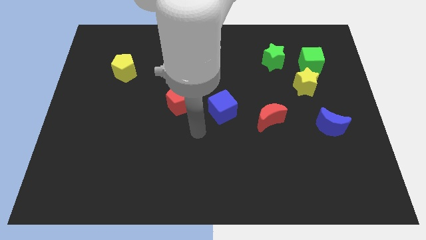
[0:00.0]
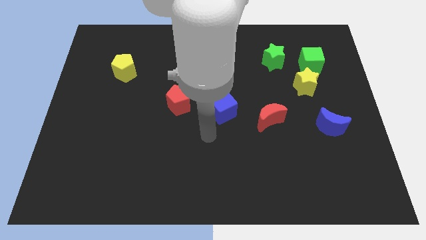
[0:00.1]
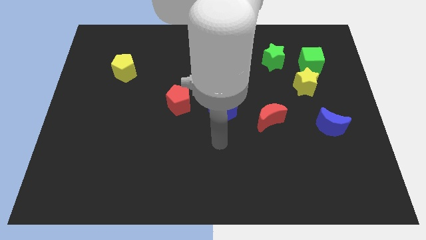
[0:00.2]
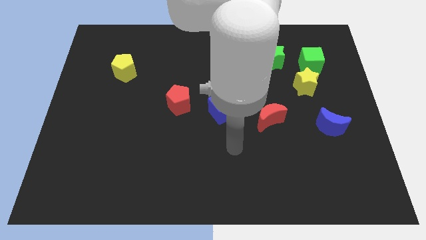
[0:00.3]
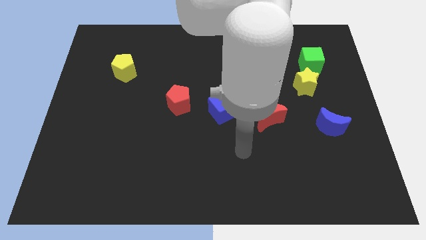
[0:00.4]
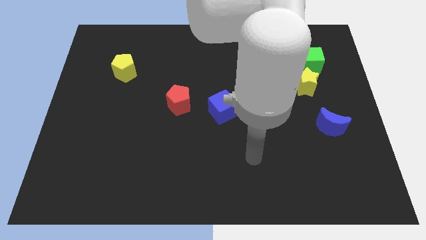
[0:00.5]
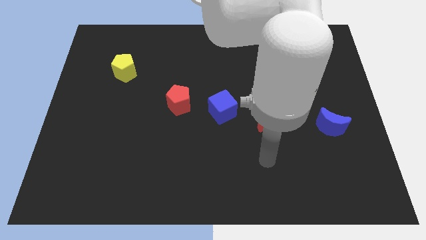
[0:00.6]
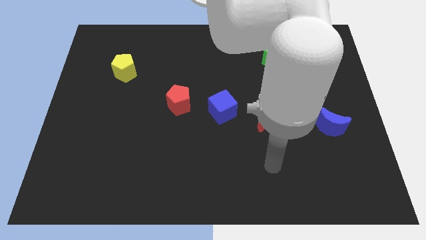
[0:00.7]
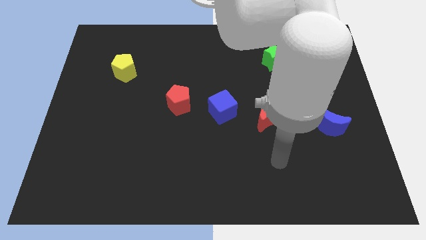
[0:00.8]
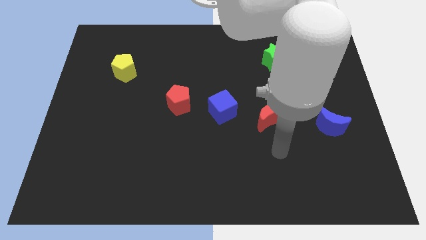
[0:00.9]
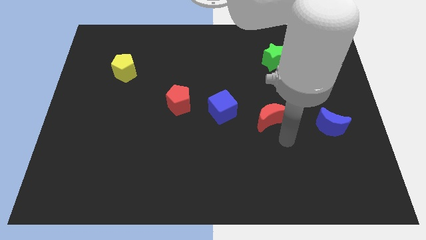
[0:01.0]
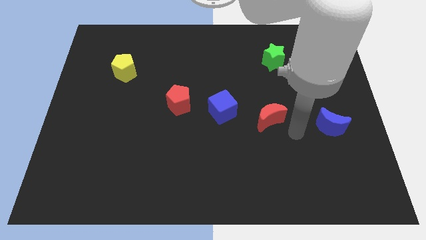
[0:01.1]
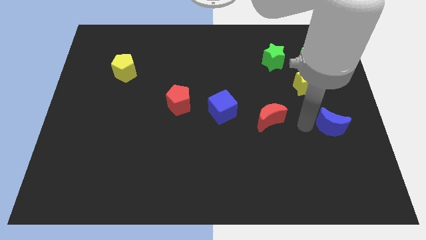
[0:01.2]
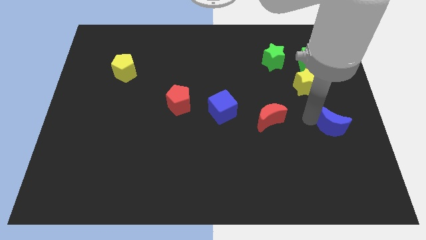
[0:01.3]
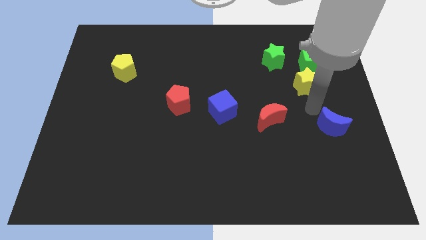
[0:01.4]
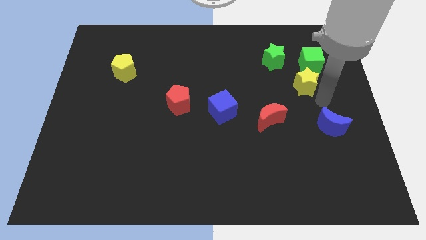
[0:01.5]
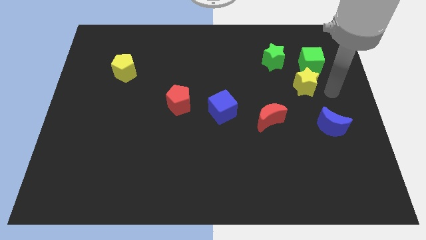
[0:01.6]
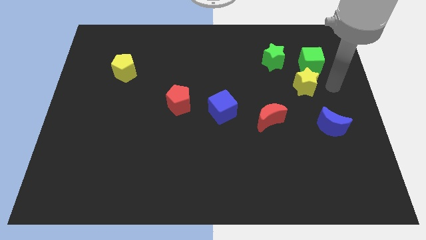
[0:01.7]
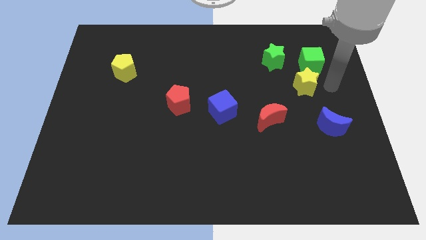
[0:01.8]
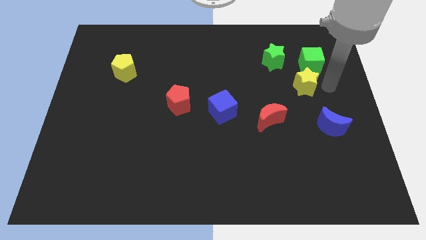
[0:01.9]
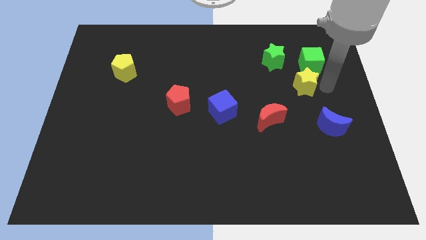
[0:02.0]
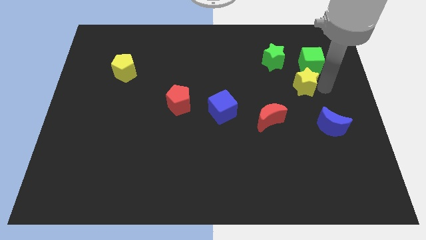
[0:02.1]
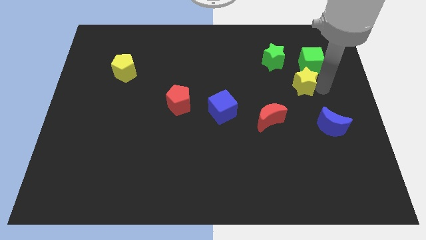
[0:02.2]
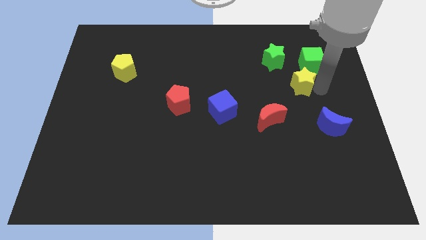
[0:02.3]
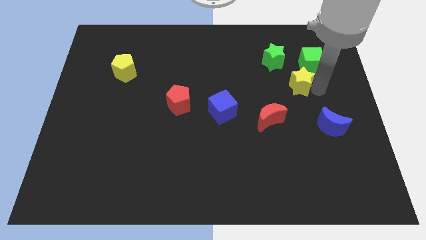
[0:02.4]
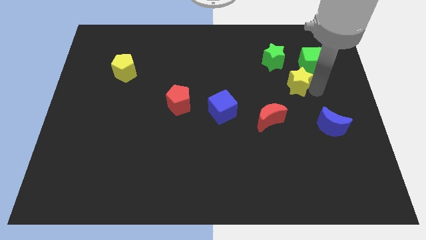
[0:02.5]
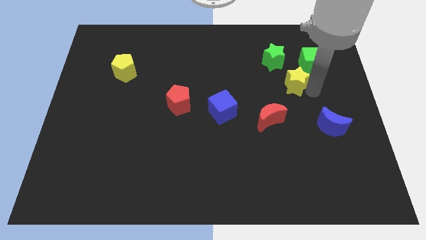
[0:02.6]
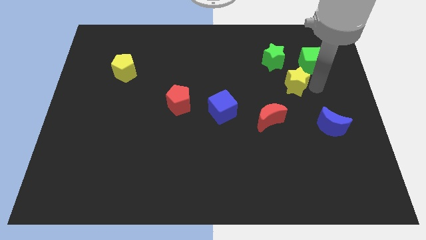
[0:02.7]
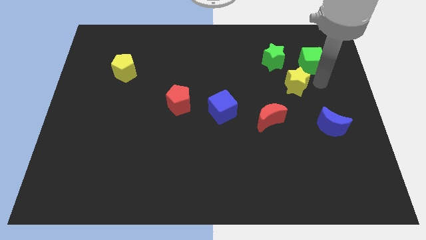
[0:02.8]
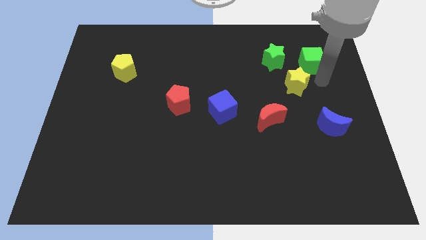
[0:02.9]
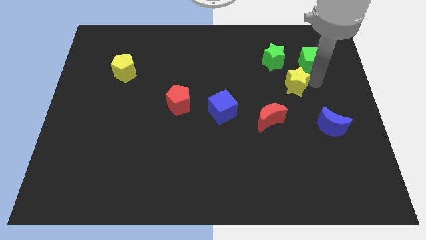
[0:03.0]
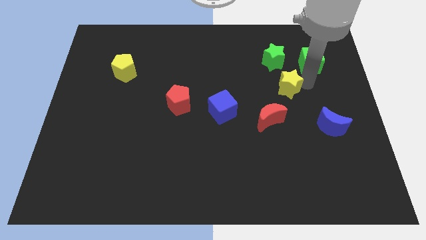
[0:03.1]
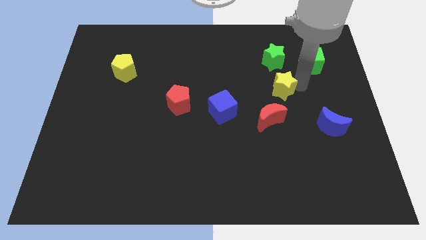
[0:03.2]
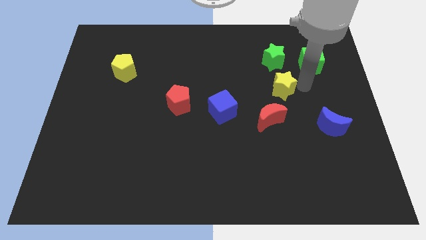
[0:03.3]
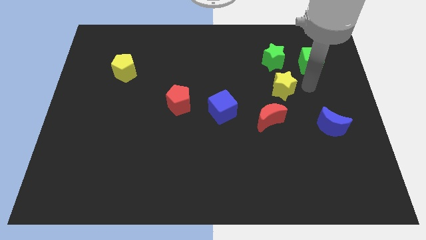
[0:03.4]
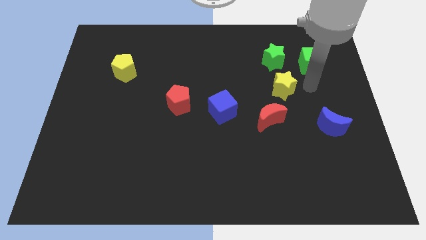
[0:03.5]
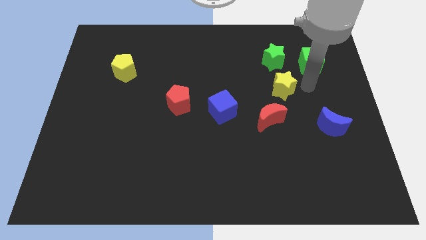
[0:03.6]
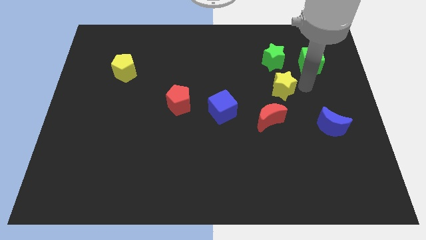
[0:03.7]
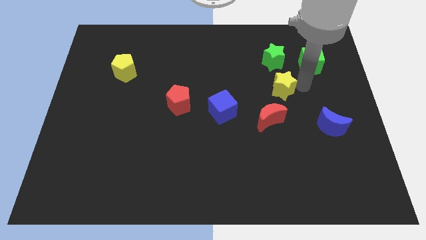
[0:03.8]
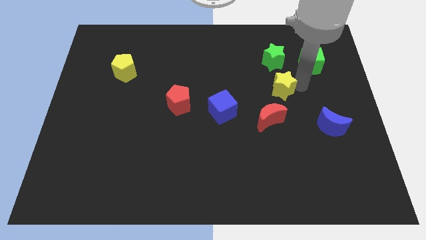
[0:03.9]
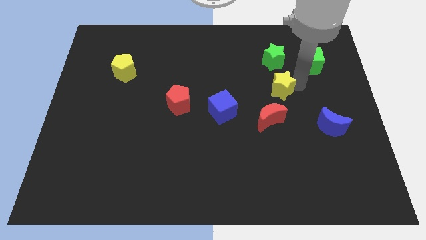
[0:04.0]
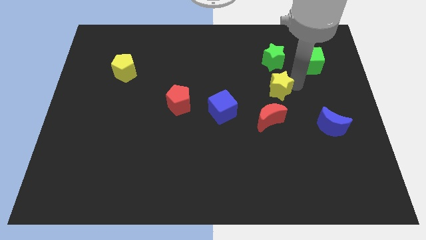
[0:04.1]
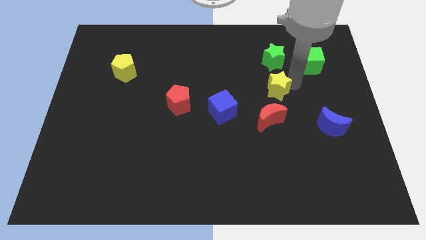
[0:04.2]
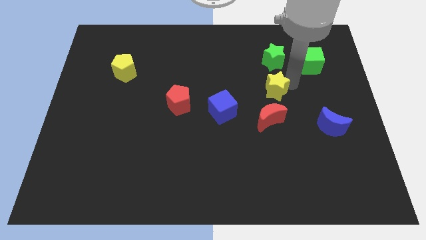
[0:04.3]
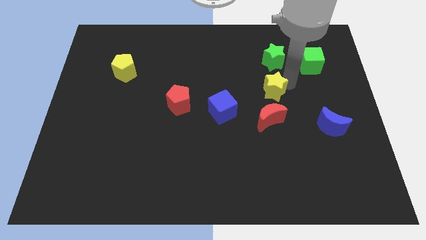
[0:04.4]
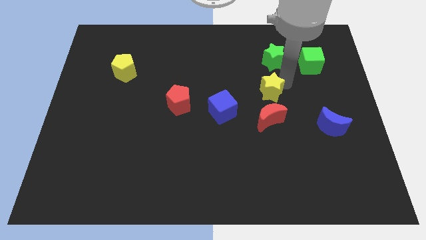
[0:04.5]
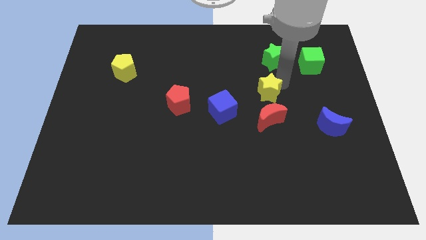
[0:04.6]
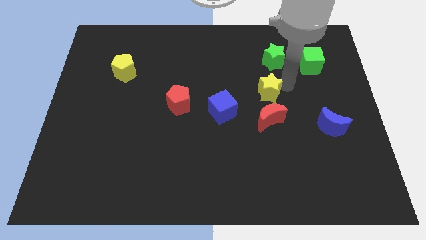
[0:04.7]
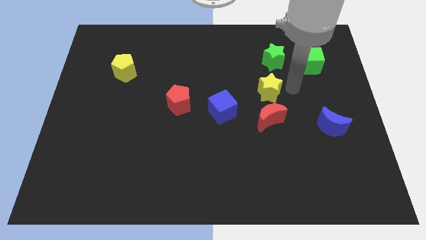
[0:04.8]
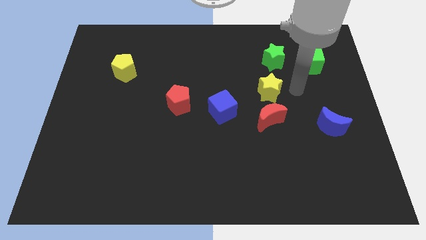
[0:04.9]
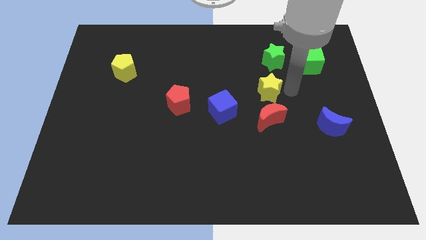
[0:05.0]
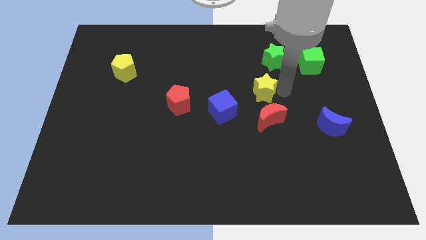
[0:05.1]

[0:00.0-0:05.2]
push the yellow star to the top right of the blue cube

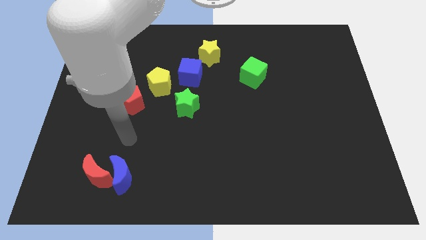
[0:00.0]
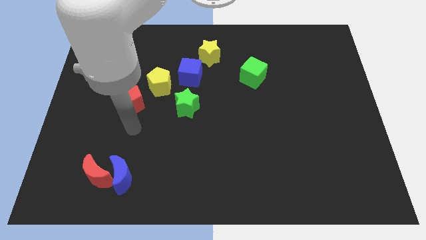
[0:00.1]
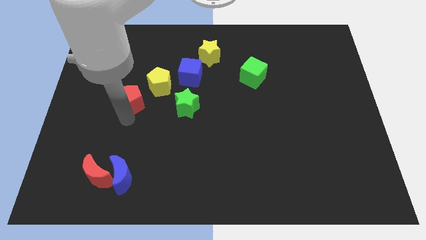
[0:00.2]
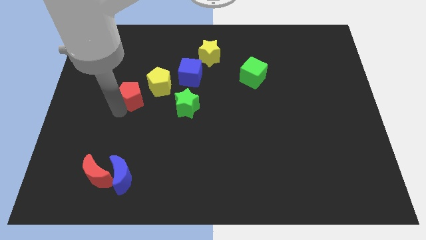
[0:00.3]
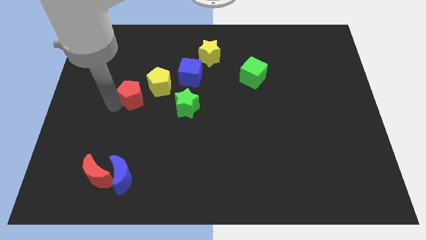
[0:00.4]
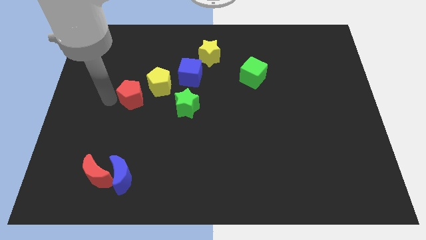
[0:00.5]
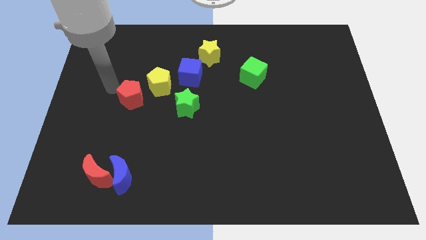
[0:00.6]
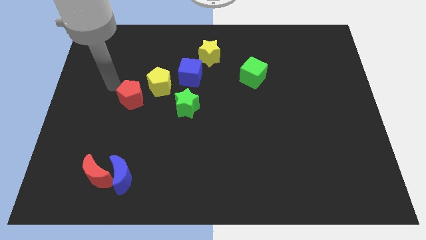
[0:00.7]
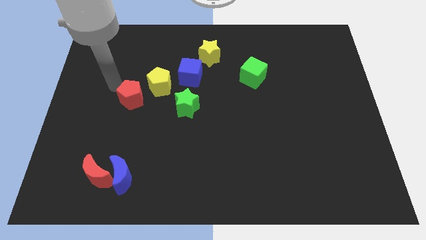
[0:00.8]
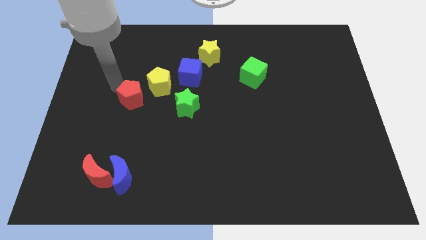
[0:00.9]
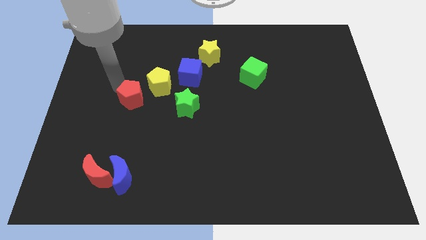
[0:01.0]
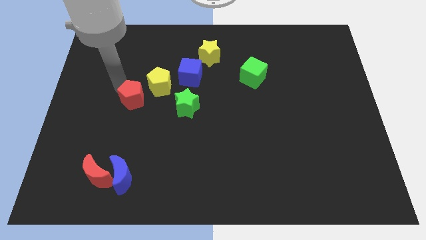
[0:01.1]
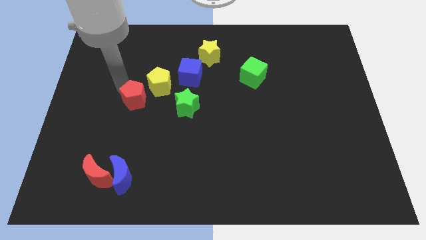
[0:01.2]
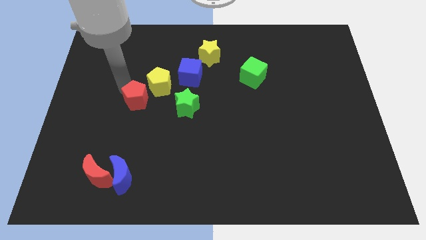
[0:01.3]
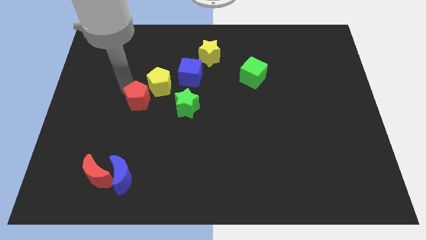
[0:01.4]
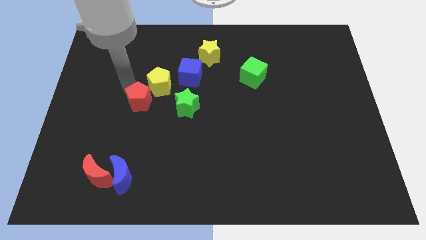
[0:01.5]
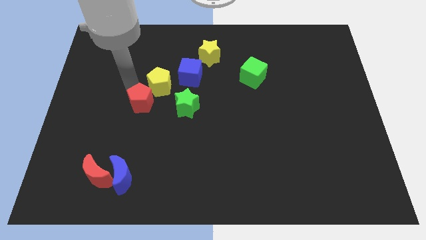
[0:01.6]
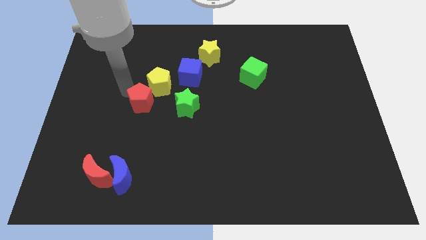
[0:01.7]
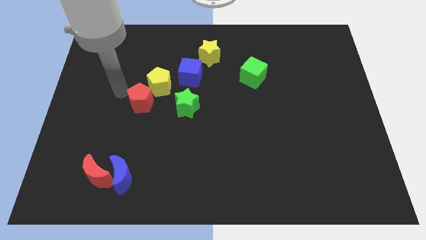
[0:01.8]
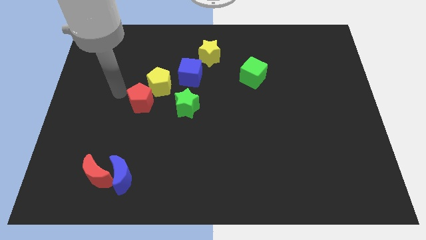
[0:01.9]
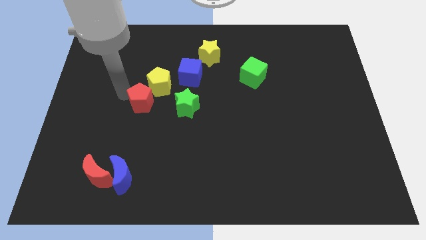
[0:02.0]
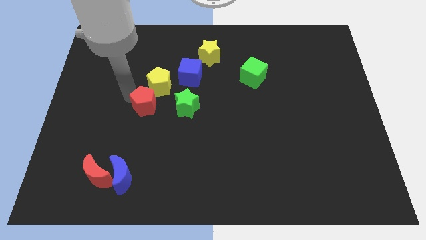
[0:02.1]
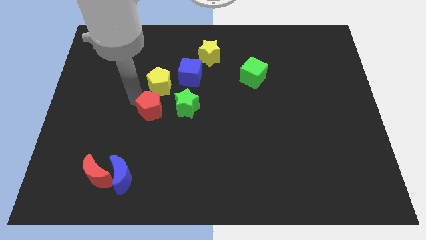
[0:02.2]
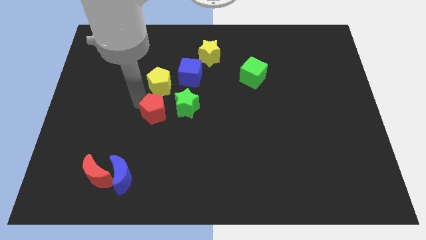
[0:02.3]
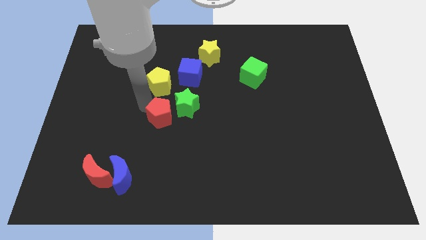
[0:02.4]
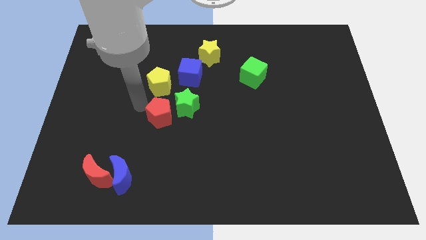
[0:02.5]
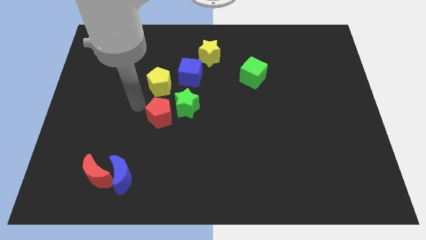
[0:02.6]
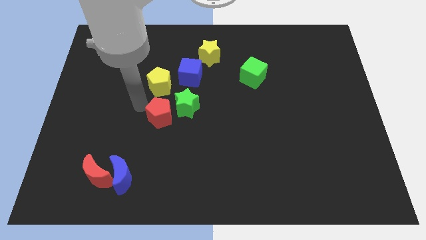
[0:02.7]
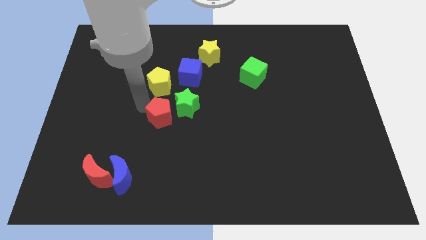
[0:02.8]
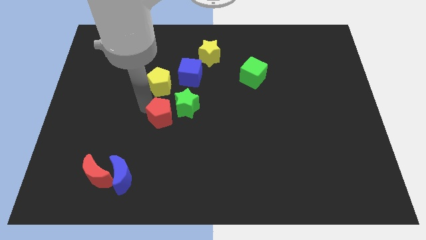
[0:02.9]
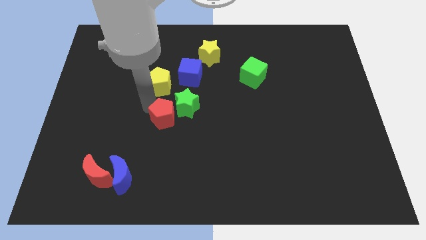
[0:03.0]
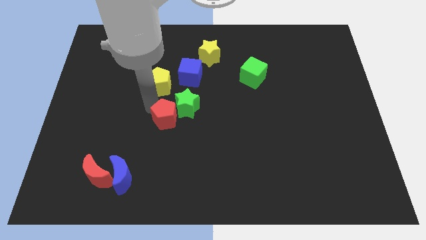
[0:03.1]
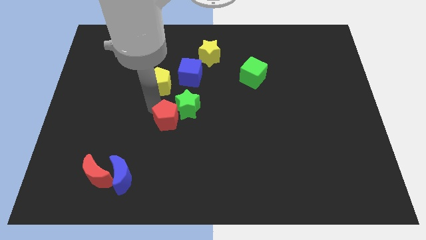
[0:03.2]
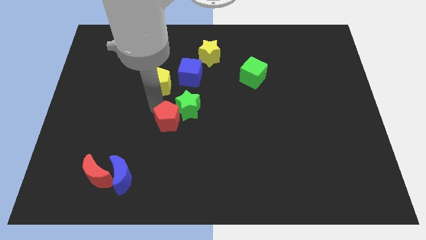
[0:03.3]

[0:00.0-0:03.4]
slide the red pentagon below the blue cube
